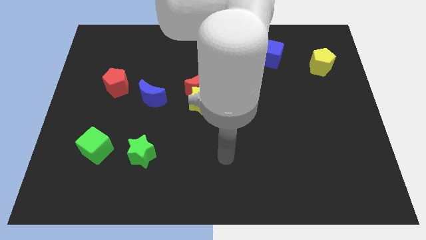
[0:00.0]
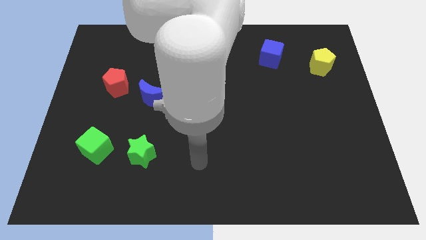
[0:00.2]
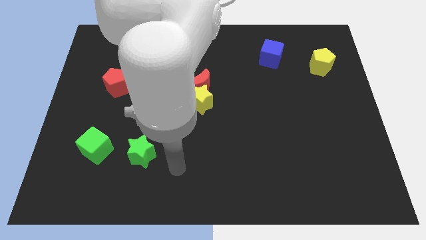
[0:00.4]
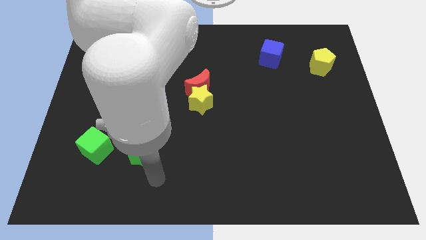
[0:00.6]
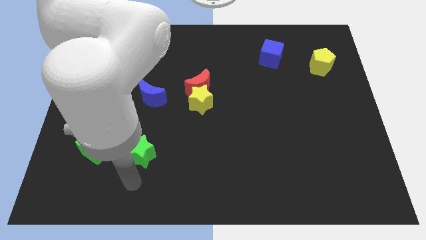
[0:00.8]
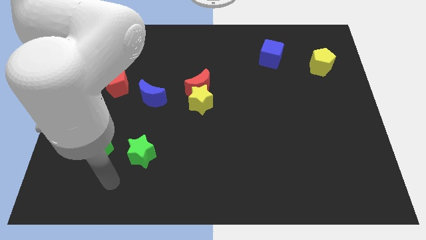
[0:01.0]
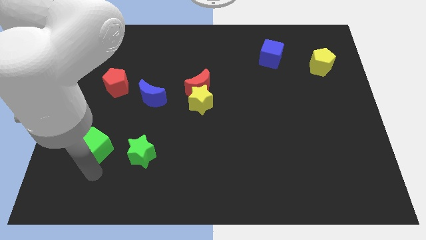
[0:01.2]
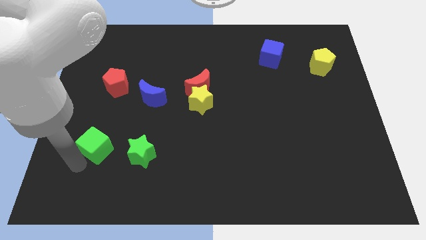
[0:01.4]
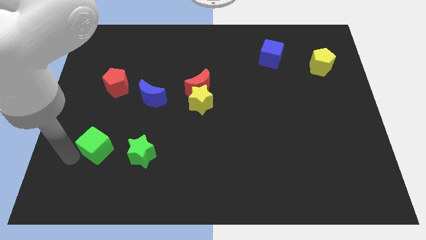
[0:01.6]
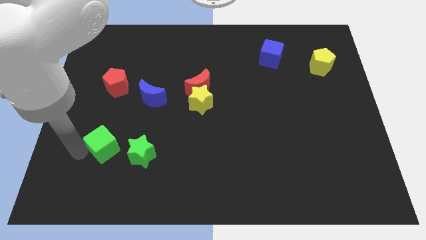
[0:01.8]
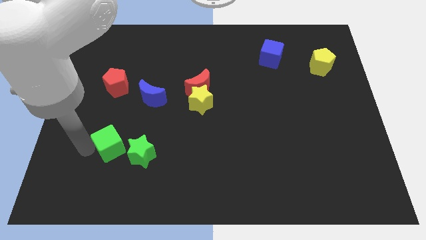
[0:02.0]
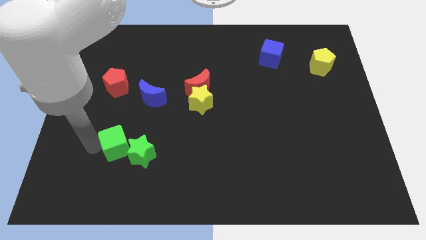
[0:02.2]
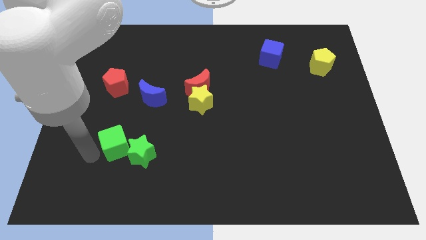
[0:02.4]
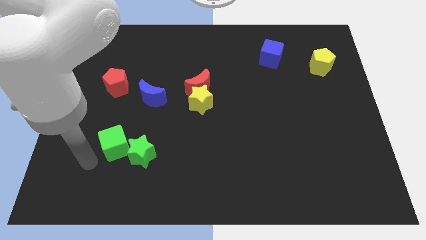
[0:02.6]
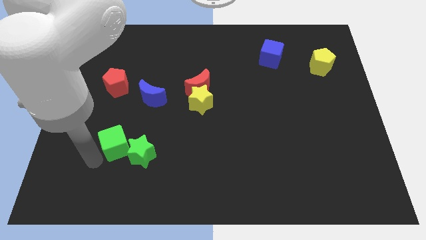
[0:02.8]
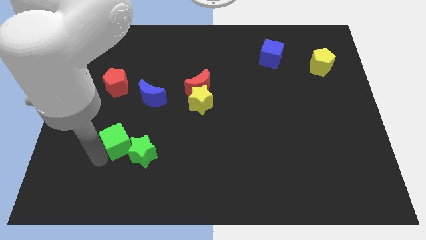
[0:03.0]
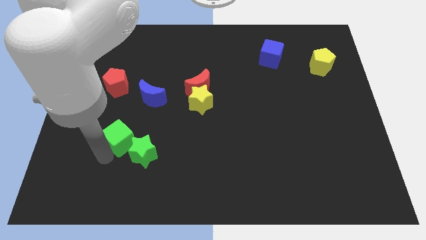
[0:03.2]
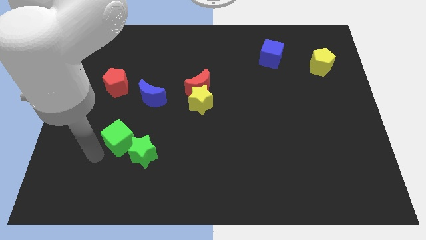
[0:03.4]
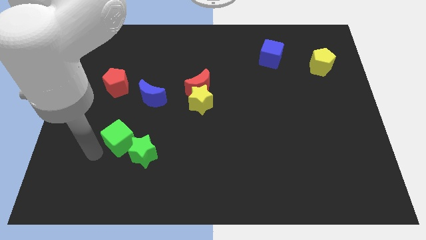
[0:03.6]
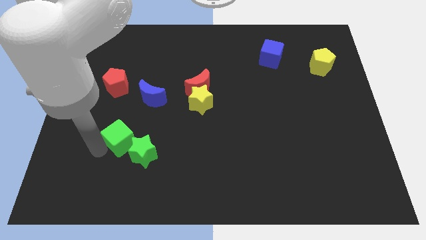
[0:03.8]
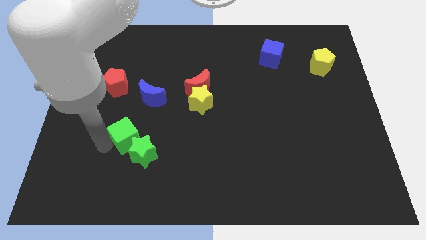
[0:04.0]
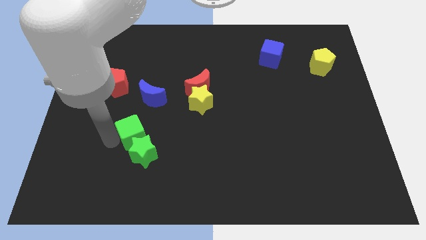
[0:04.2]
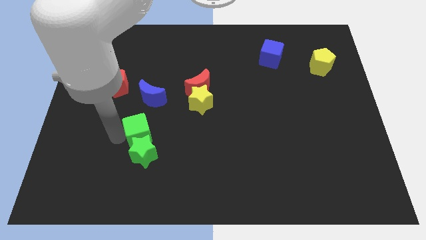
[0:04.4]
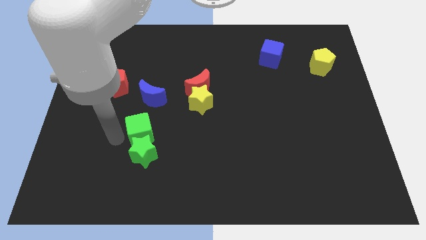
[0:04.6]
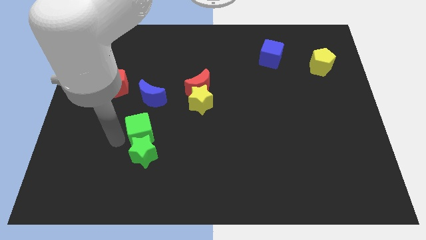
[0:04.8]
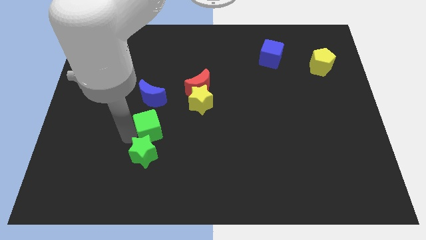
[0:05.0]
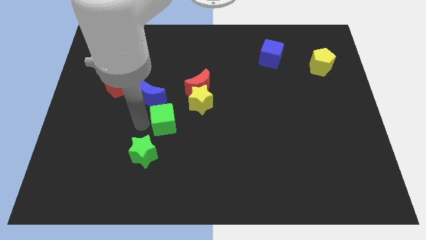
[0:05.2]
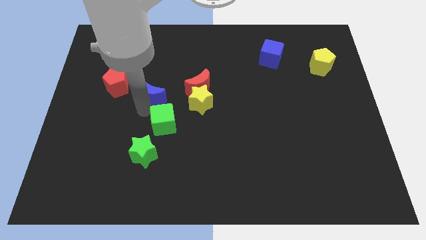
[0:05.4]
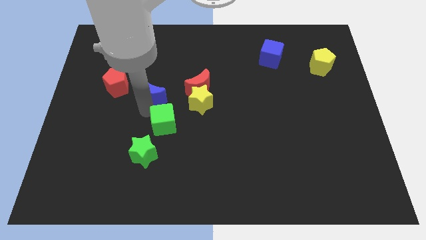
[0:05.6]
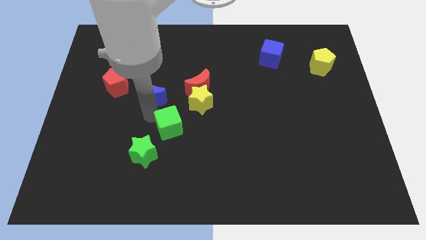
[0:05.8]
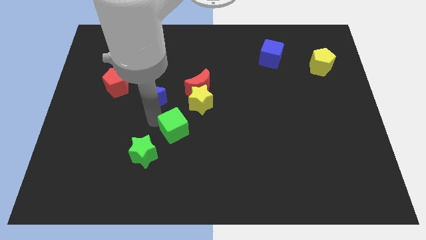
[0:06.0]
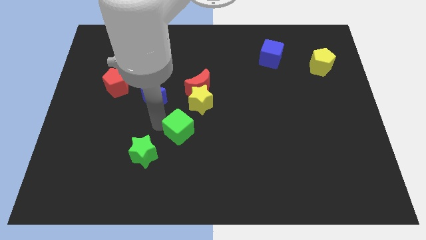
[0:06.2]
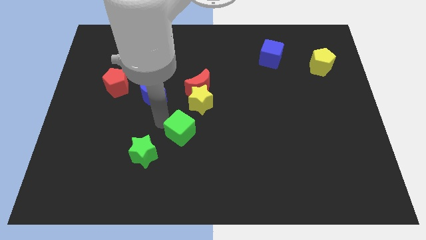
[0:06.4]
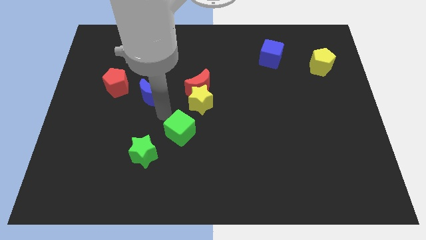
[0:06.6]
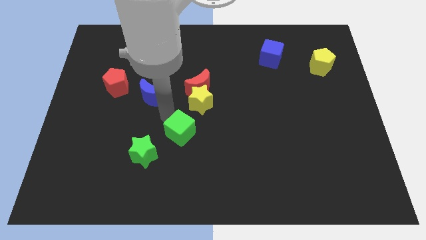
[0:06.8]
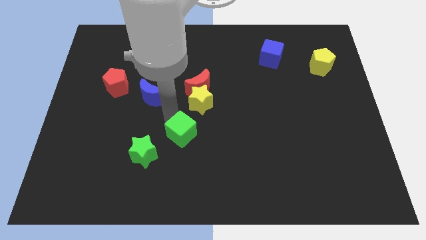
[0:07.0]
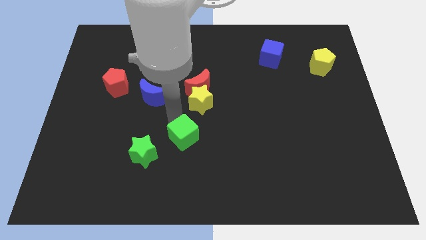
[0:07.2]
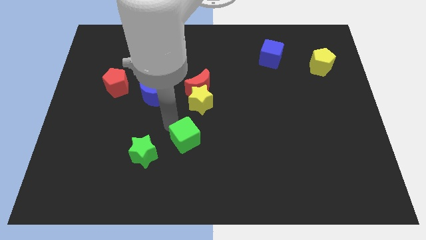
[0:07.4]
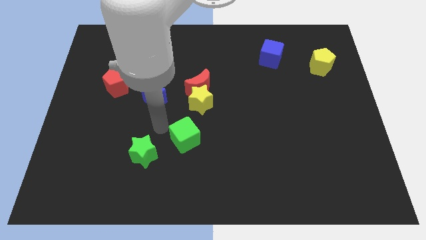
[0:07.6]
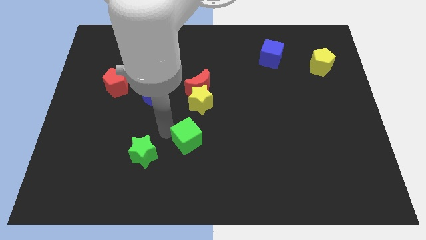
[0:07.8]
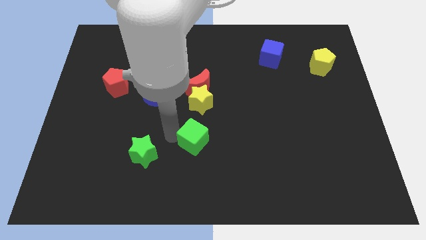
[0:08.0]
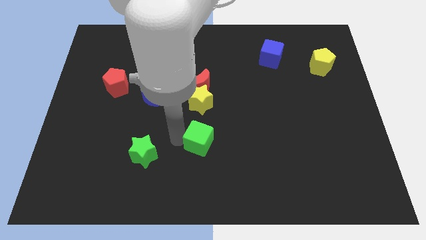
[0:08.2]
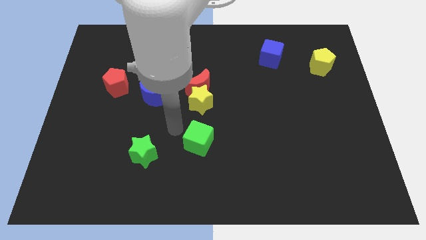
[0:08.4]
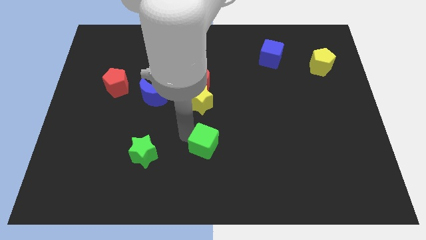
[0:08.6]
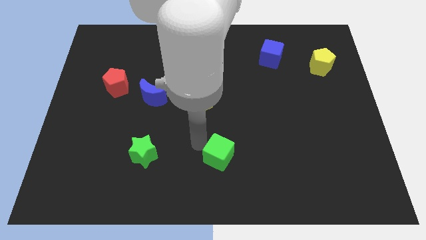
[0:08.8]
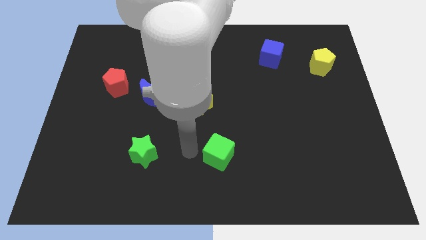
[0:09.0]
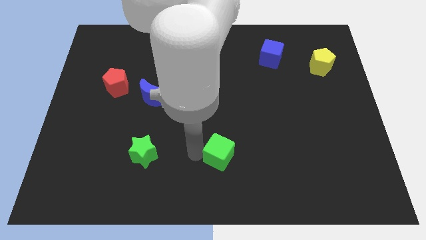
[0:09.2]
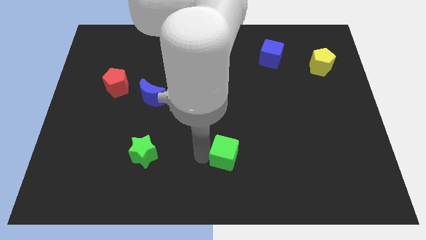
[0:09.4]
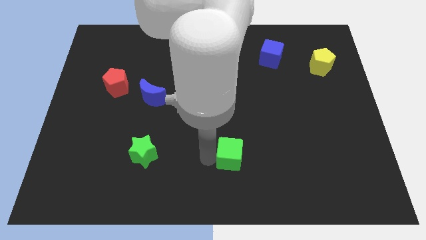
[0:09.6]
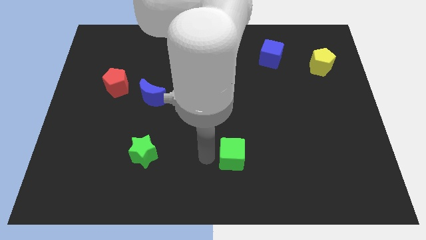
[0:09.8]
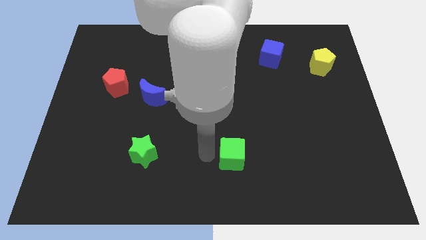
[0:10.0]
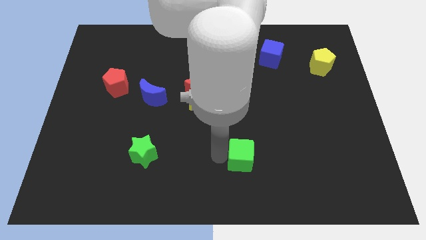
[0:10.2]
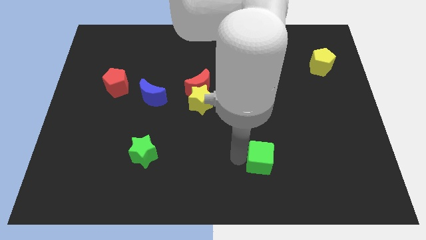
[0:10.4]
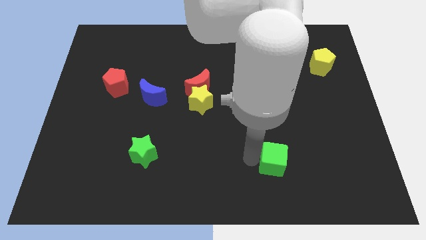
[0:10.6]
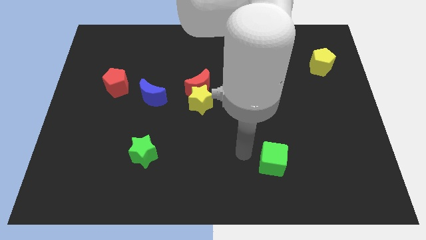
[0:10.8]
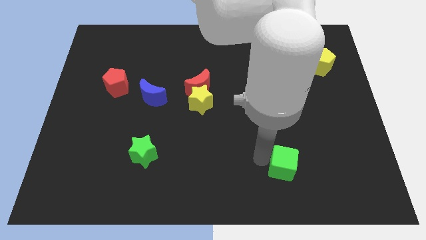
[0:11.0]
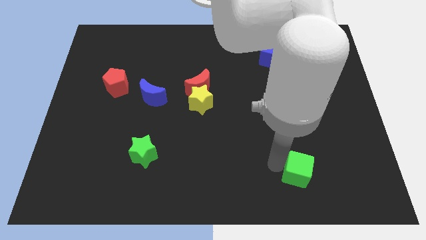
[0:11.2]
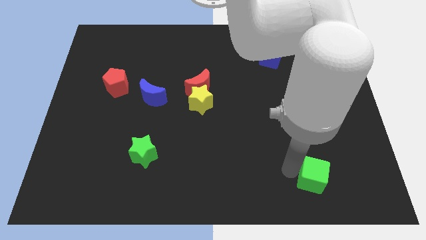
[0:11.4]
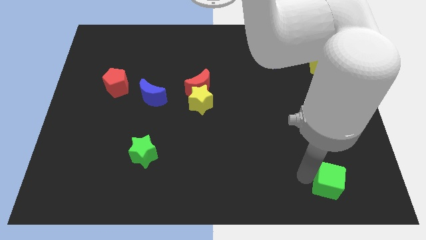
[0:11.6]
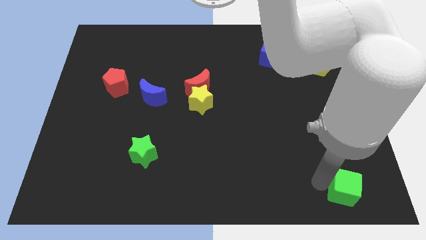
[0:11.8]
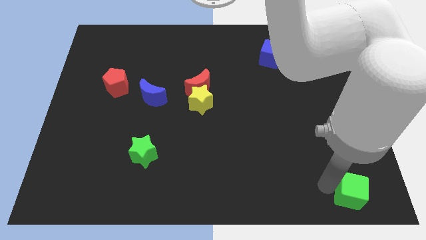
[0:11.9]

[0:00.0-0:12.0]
put the green cube to the bottom right

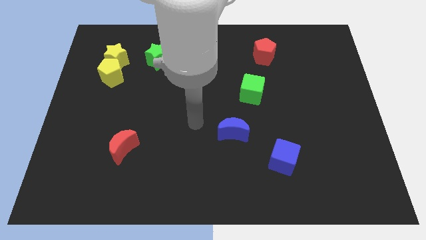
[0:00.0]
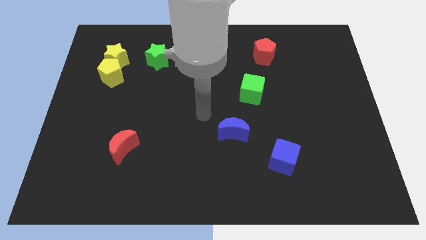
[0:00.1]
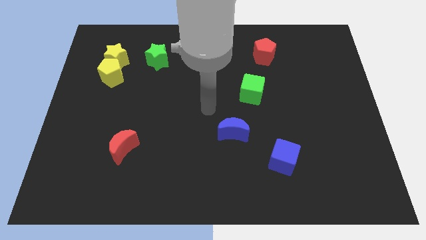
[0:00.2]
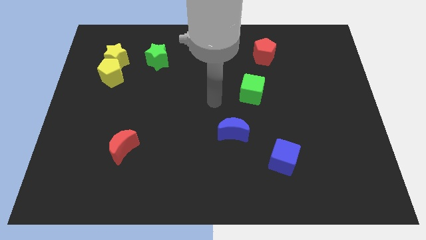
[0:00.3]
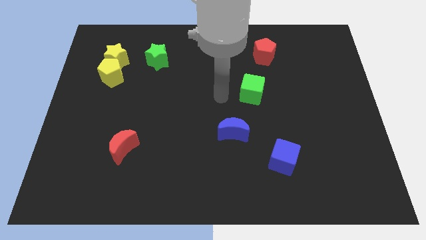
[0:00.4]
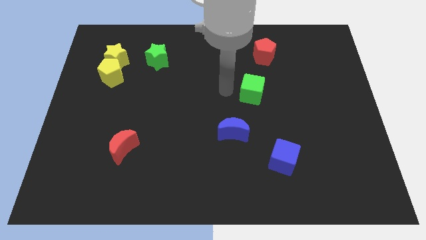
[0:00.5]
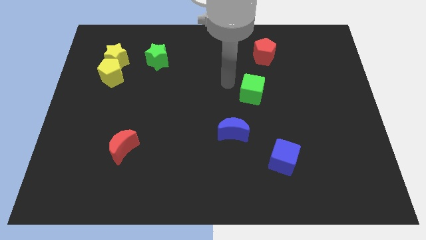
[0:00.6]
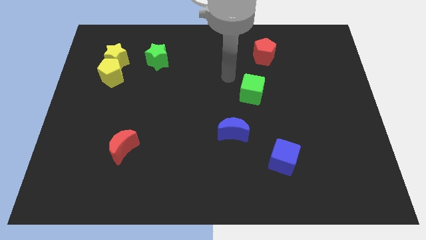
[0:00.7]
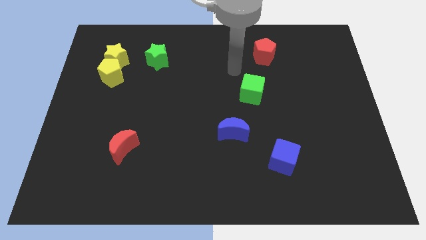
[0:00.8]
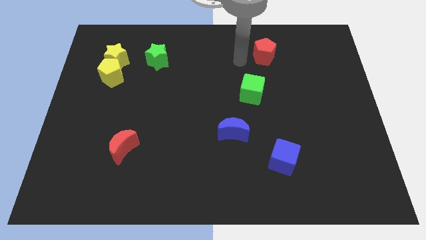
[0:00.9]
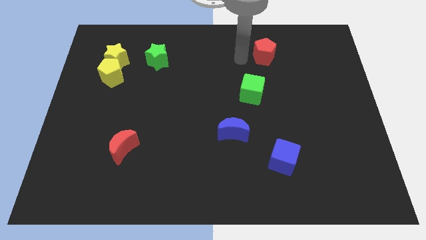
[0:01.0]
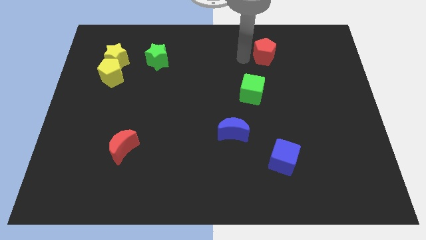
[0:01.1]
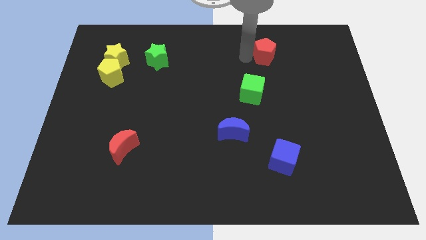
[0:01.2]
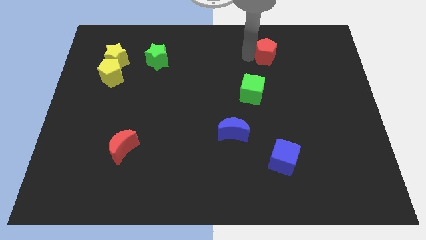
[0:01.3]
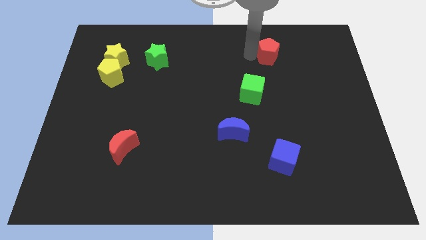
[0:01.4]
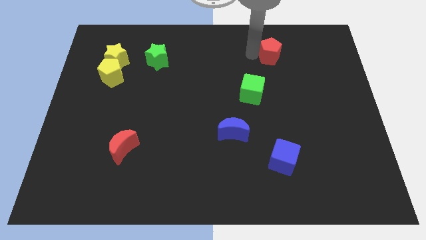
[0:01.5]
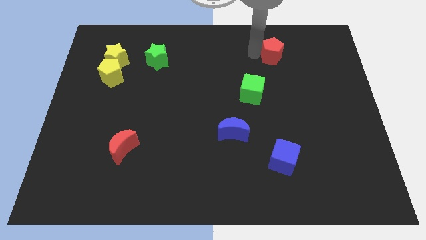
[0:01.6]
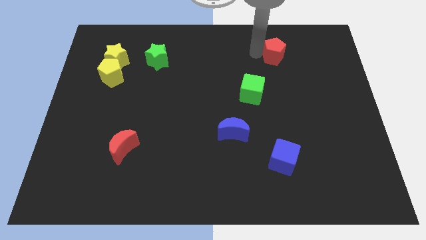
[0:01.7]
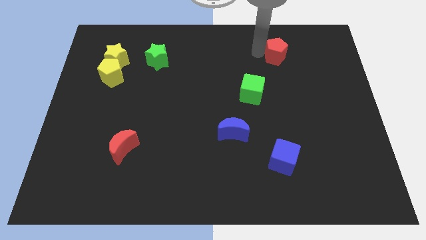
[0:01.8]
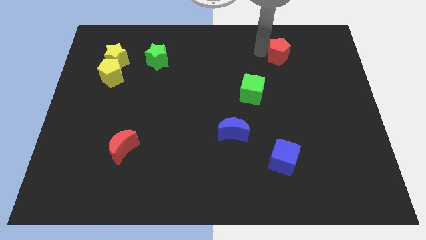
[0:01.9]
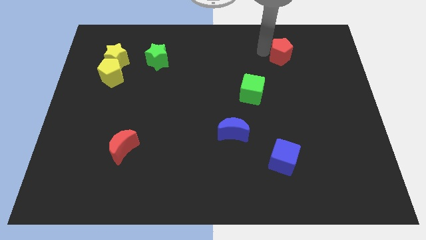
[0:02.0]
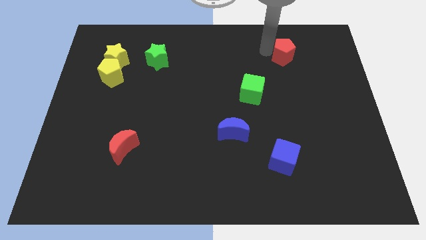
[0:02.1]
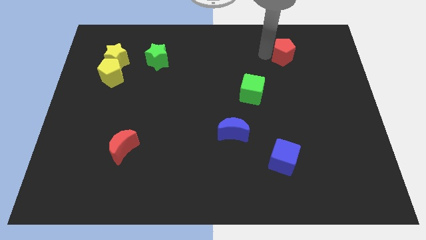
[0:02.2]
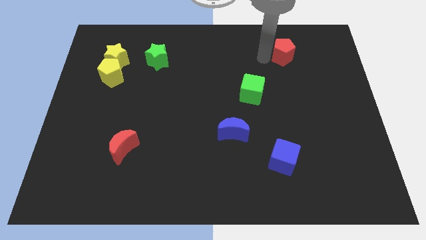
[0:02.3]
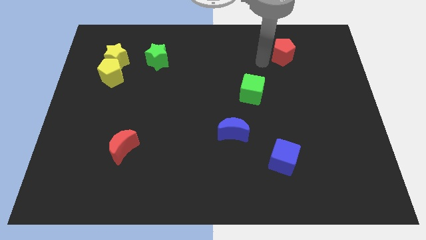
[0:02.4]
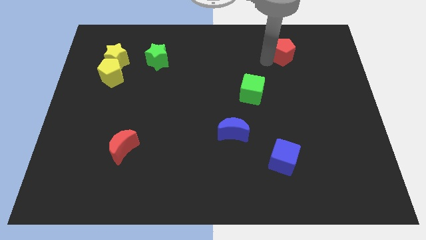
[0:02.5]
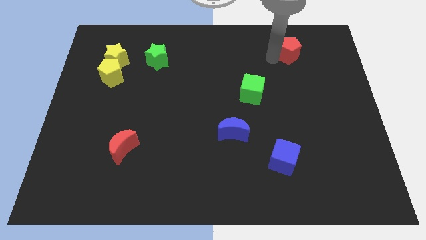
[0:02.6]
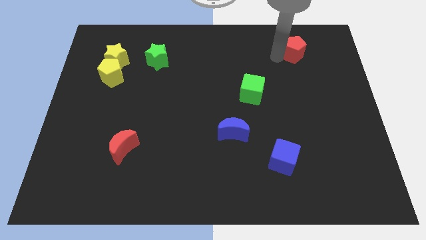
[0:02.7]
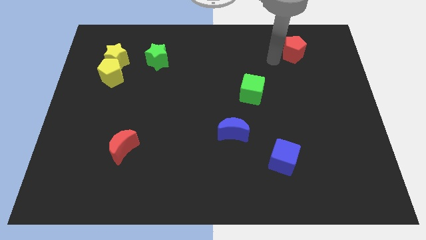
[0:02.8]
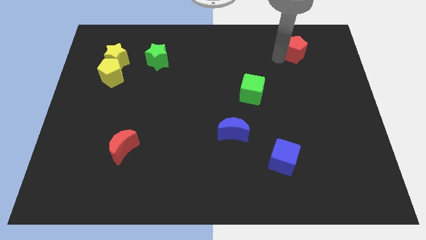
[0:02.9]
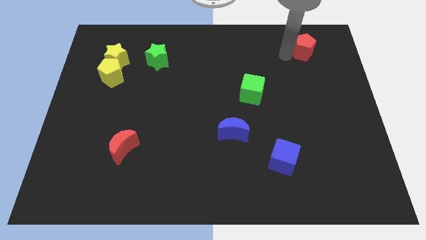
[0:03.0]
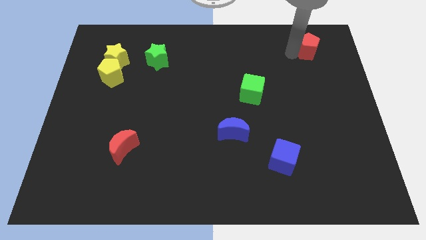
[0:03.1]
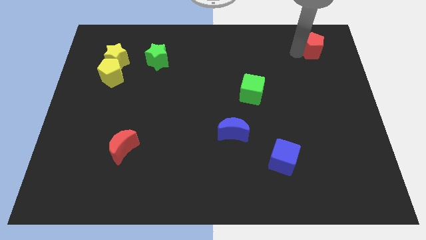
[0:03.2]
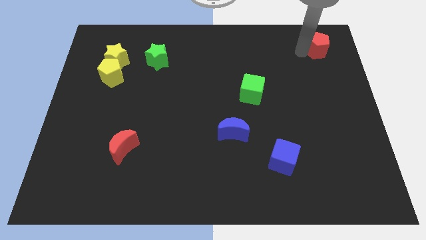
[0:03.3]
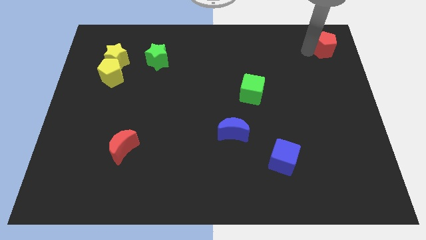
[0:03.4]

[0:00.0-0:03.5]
move the red pentagon to the top right
